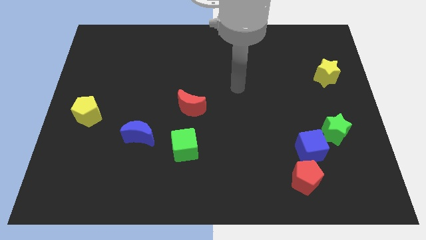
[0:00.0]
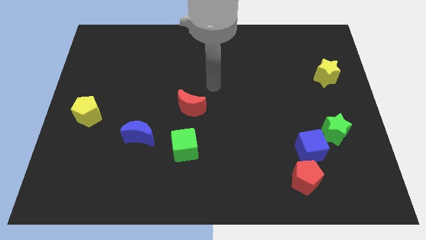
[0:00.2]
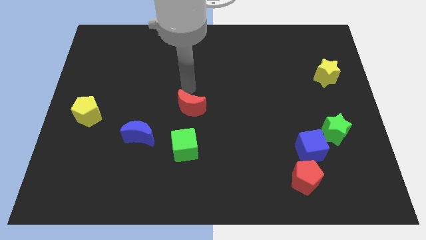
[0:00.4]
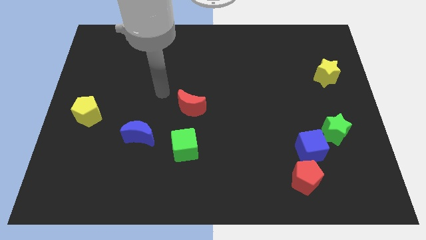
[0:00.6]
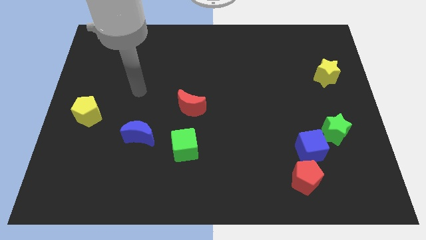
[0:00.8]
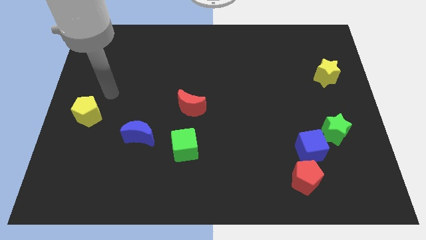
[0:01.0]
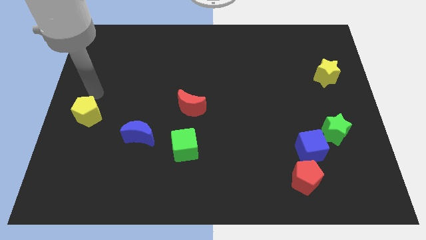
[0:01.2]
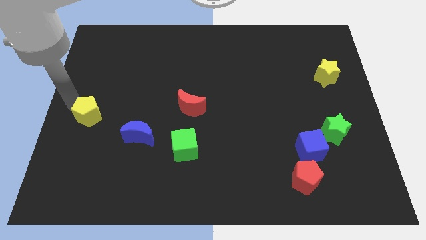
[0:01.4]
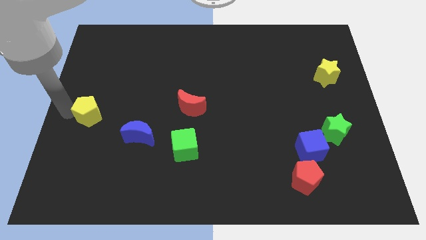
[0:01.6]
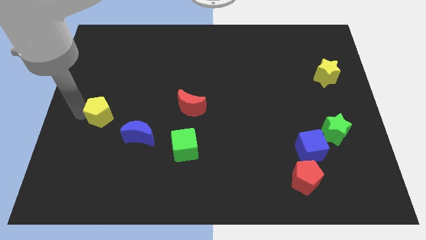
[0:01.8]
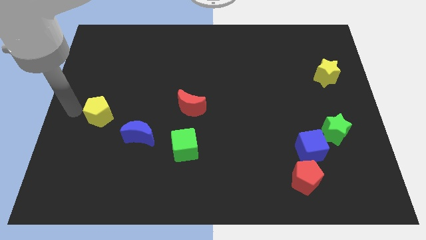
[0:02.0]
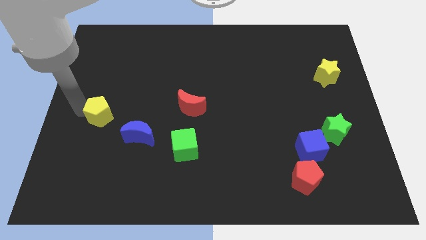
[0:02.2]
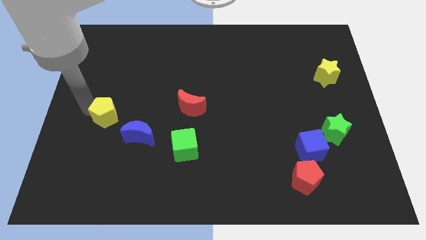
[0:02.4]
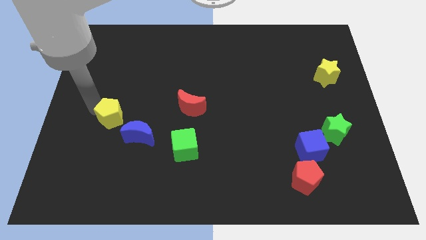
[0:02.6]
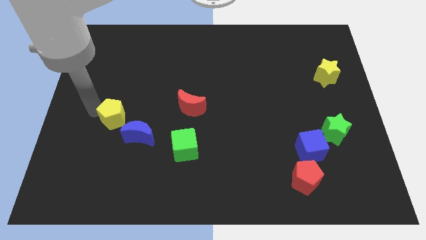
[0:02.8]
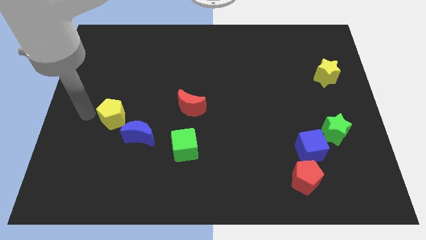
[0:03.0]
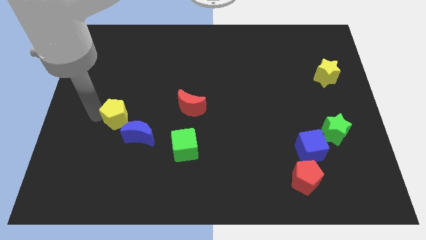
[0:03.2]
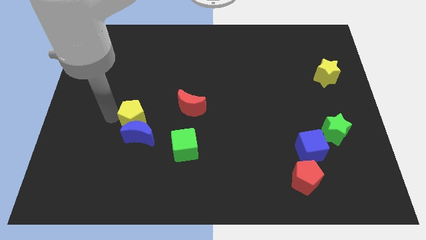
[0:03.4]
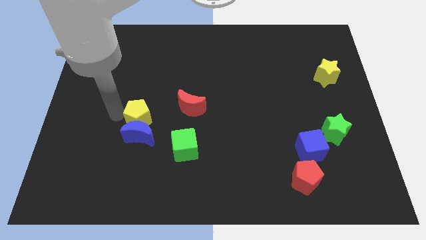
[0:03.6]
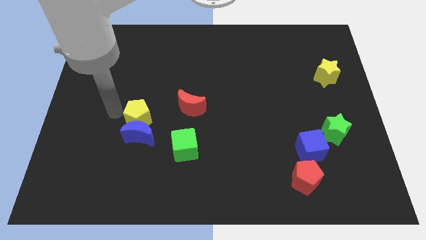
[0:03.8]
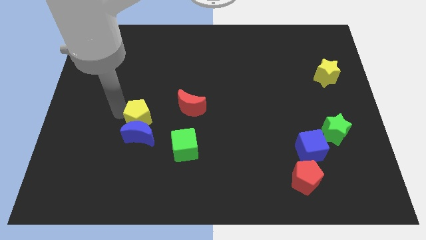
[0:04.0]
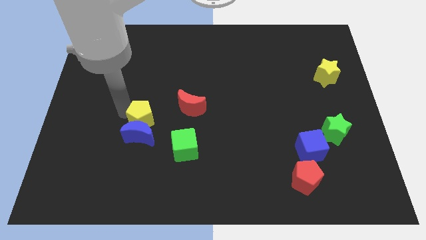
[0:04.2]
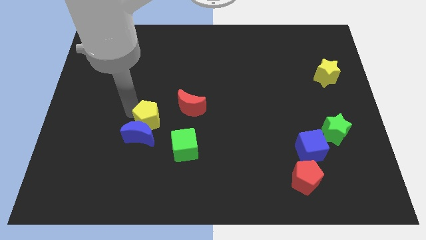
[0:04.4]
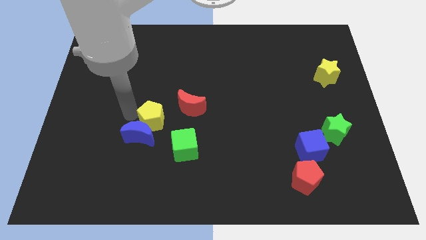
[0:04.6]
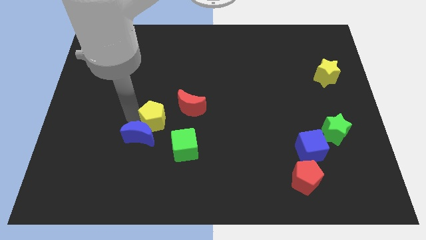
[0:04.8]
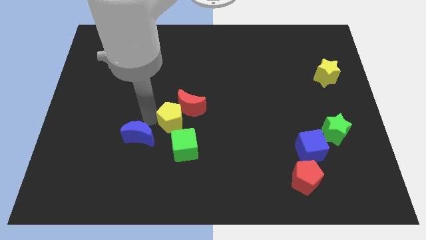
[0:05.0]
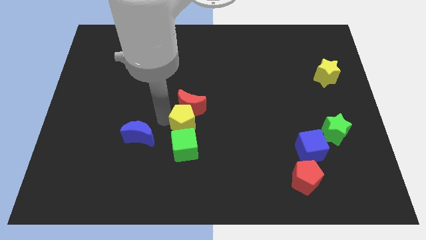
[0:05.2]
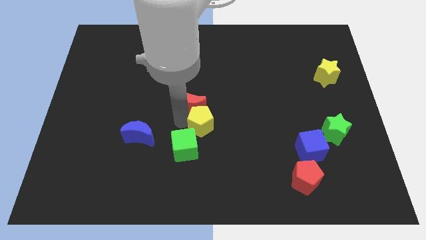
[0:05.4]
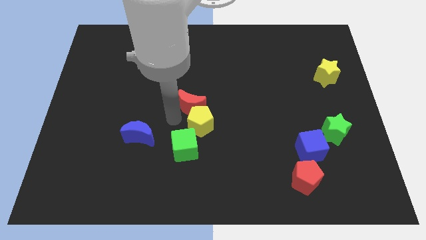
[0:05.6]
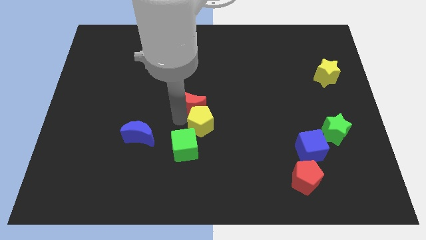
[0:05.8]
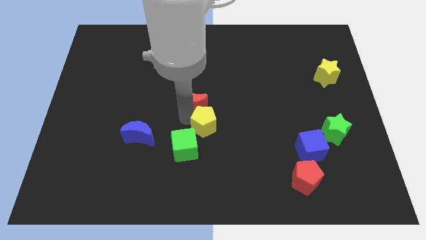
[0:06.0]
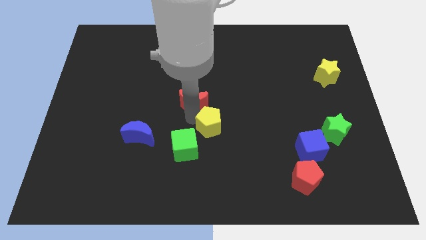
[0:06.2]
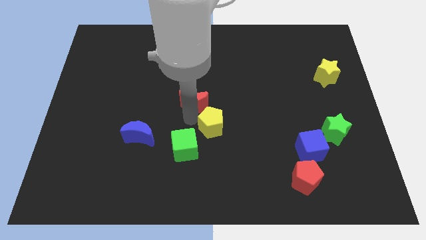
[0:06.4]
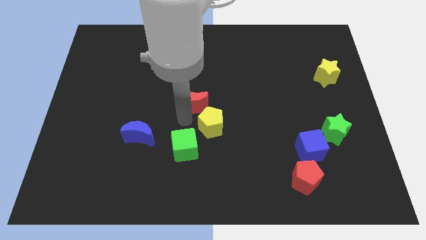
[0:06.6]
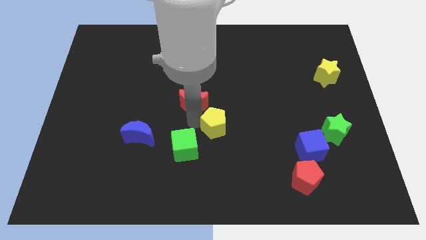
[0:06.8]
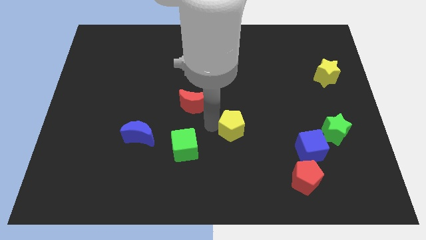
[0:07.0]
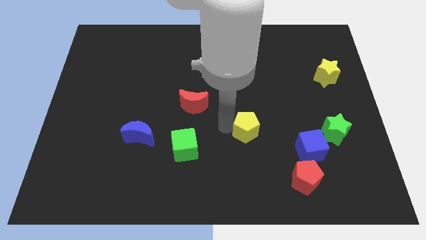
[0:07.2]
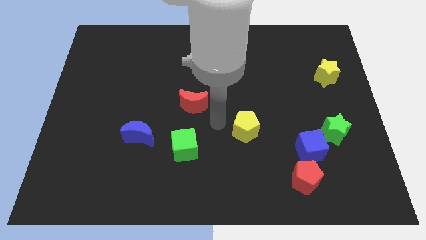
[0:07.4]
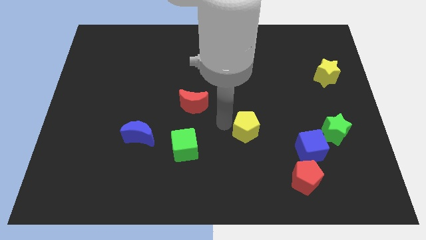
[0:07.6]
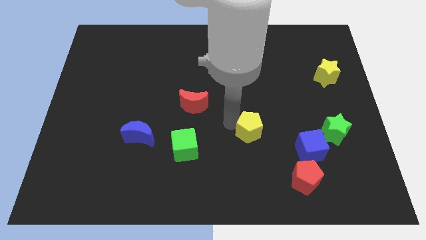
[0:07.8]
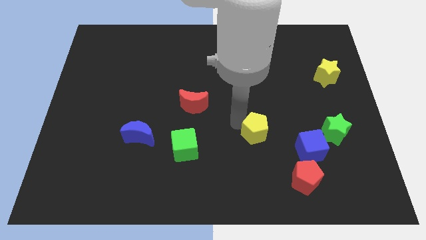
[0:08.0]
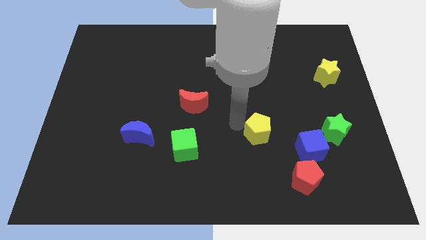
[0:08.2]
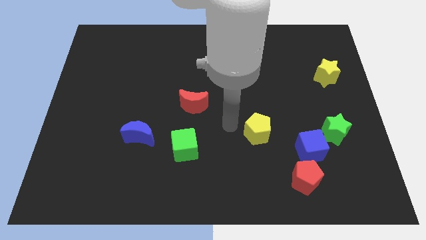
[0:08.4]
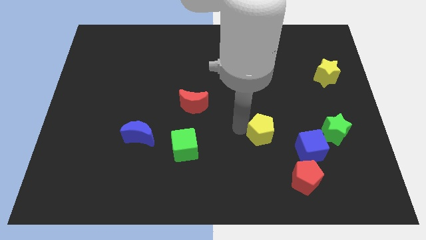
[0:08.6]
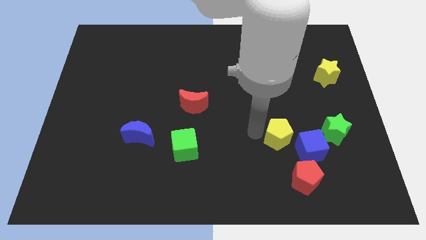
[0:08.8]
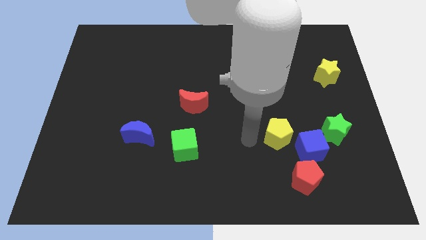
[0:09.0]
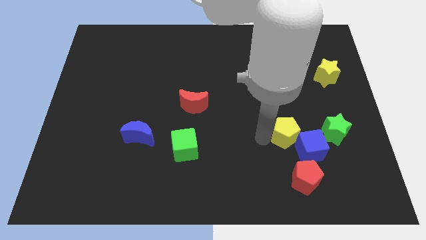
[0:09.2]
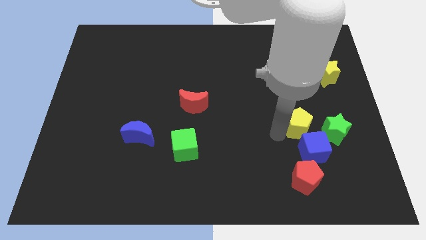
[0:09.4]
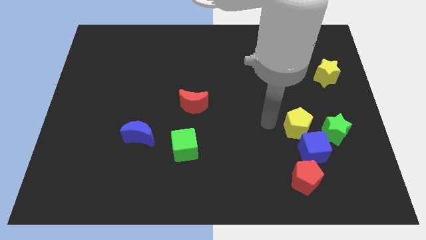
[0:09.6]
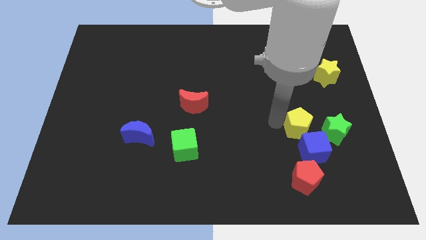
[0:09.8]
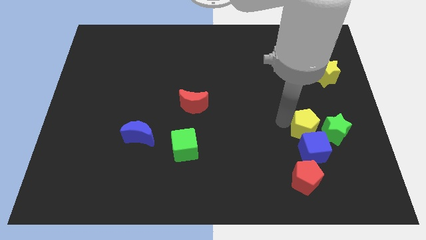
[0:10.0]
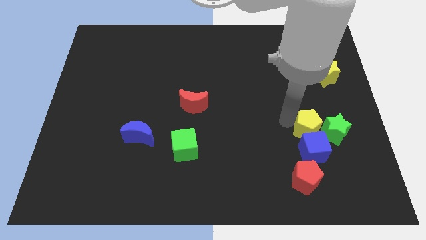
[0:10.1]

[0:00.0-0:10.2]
put the yellow pentagon next to the green star

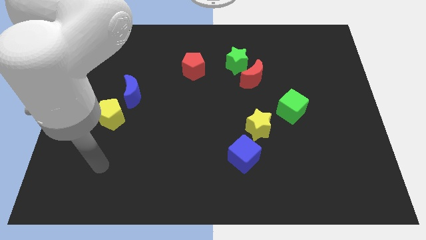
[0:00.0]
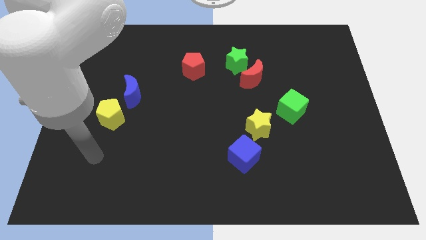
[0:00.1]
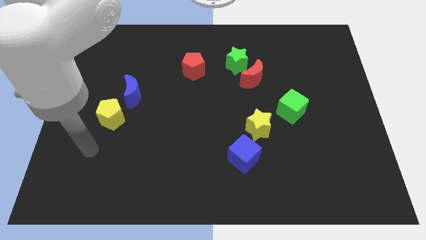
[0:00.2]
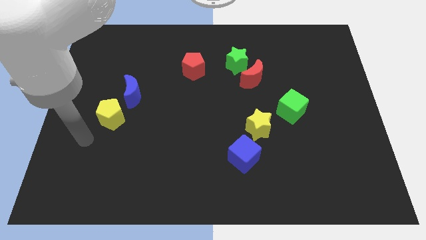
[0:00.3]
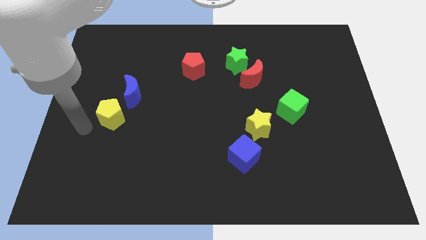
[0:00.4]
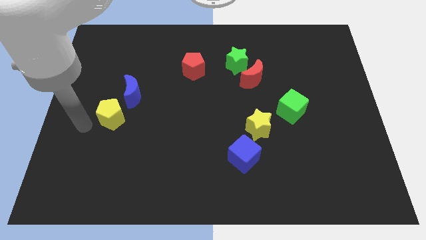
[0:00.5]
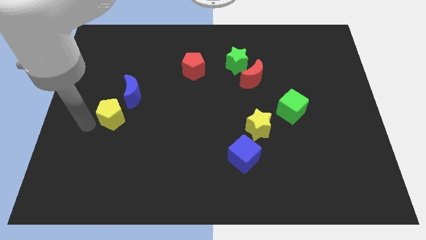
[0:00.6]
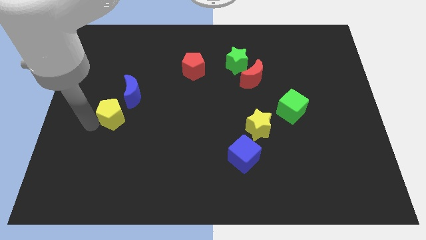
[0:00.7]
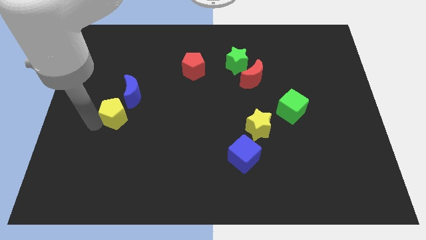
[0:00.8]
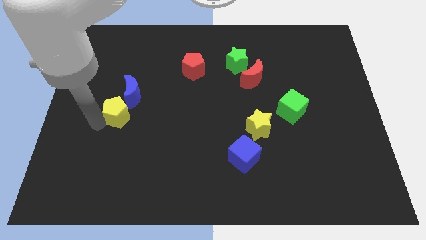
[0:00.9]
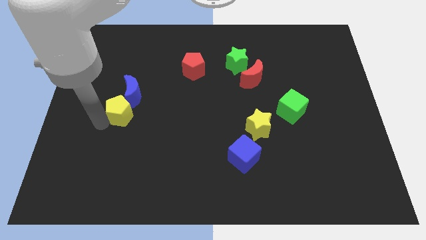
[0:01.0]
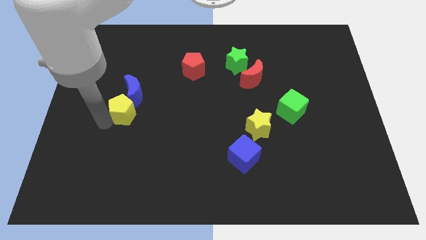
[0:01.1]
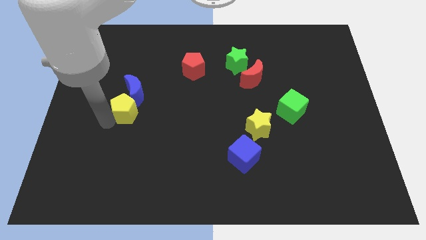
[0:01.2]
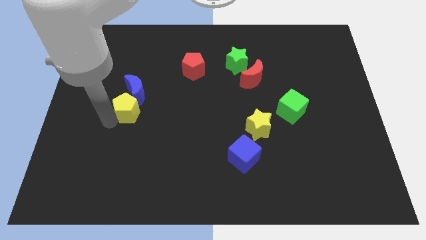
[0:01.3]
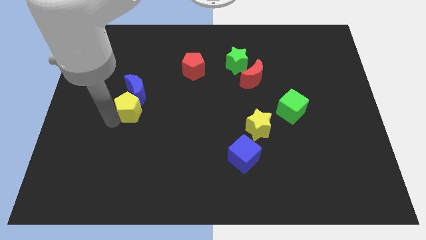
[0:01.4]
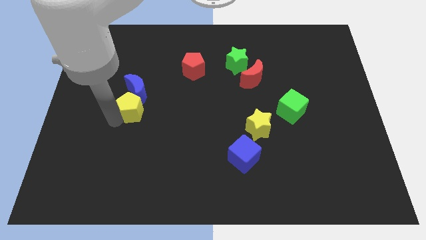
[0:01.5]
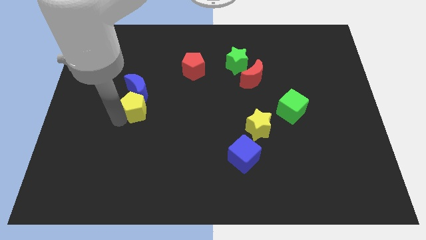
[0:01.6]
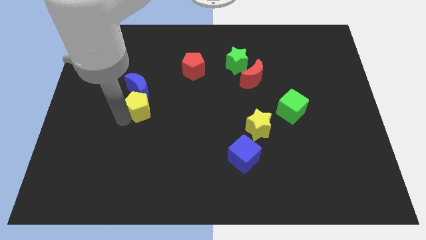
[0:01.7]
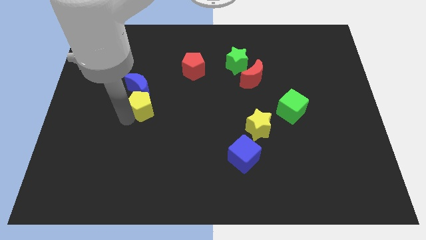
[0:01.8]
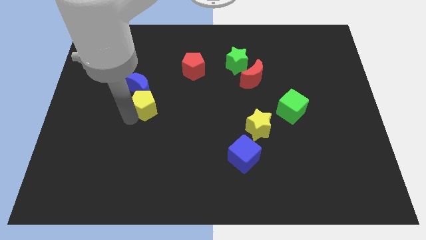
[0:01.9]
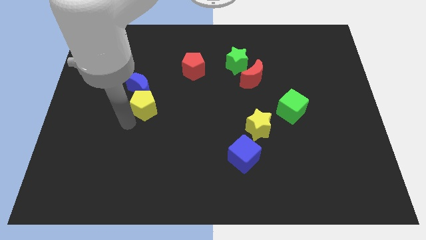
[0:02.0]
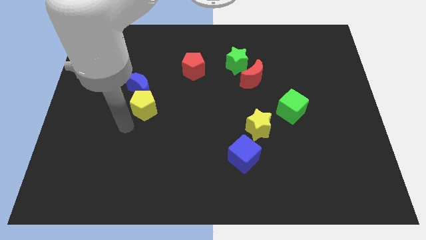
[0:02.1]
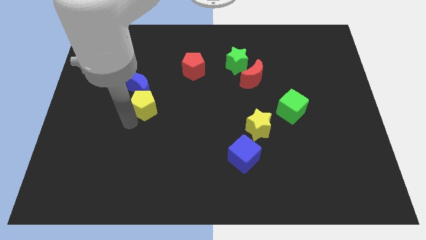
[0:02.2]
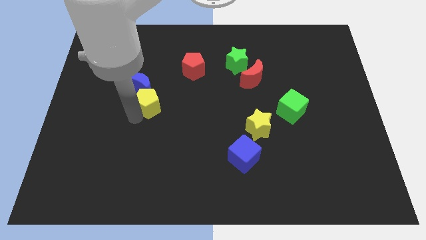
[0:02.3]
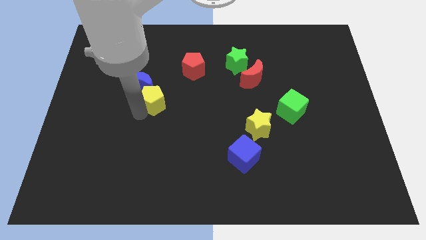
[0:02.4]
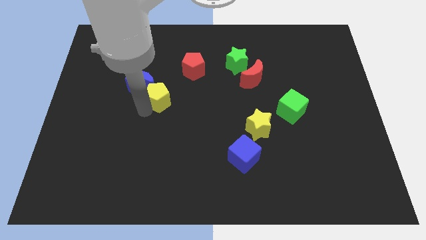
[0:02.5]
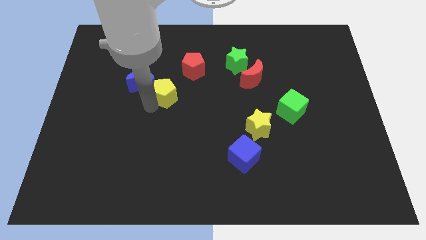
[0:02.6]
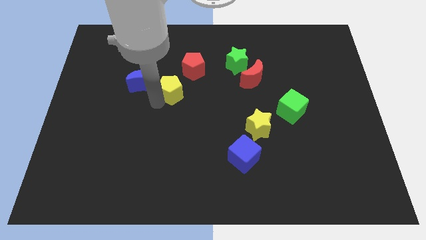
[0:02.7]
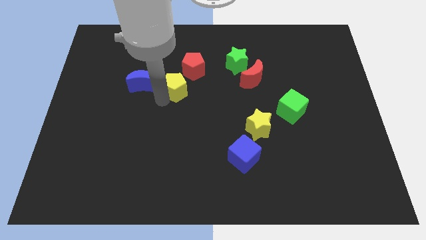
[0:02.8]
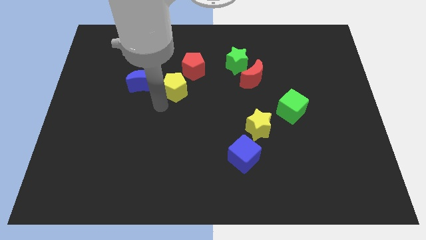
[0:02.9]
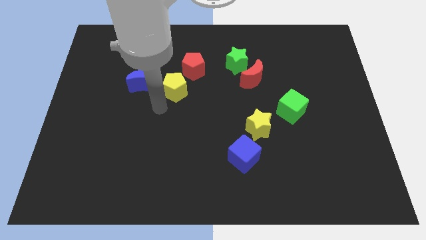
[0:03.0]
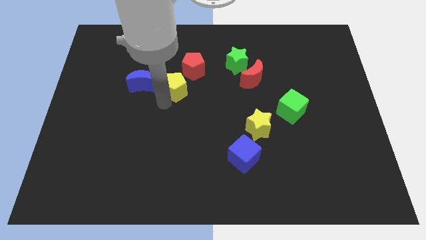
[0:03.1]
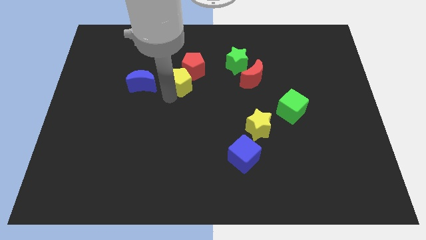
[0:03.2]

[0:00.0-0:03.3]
put the yellow pentagon next to the red pentagon
